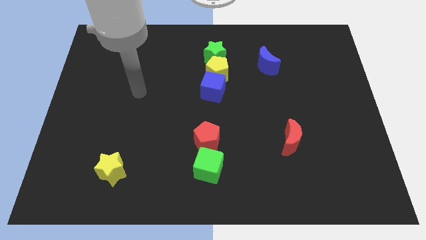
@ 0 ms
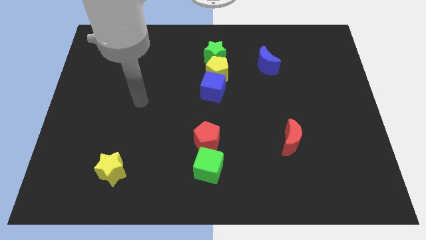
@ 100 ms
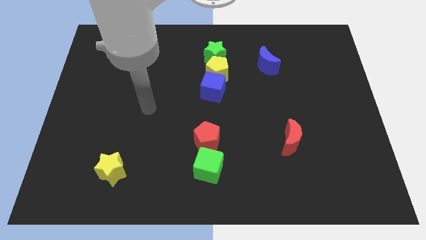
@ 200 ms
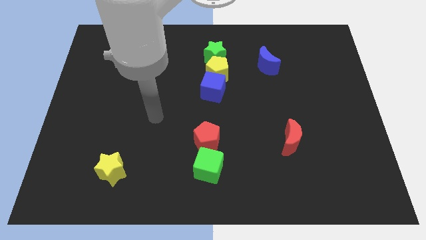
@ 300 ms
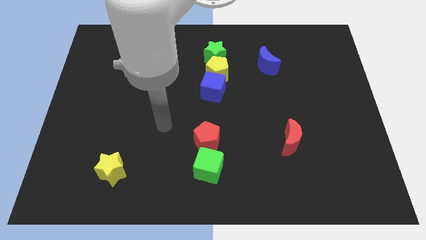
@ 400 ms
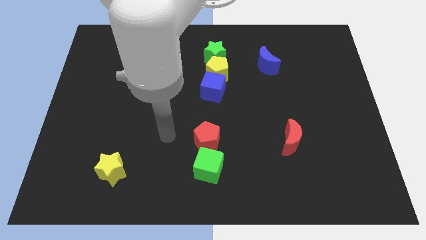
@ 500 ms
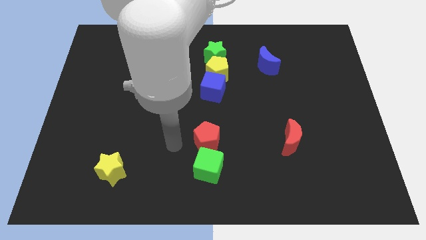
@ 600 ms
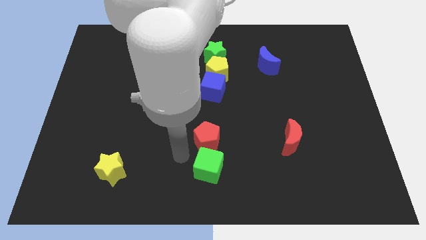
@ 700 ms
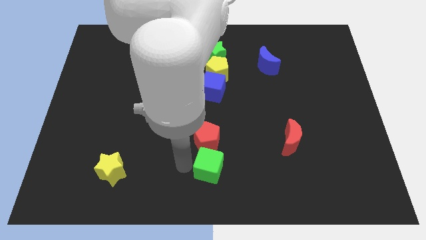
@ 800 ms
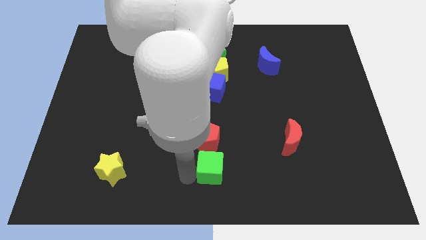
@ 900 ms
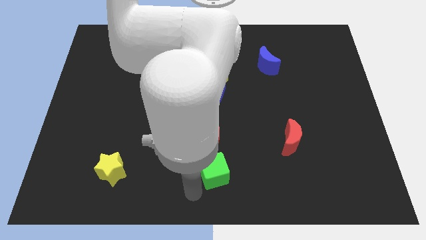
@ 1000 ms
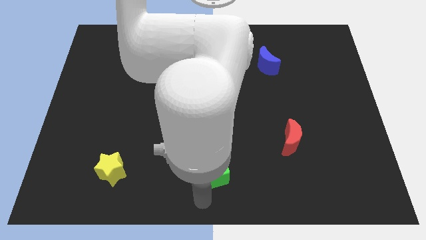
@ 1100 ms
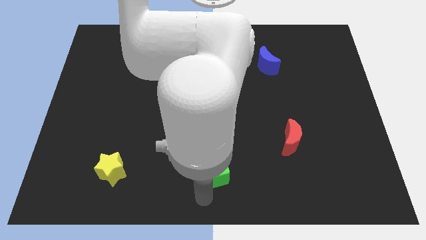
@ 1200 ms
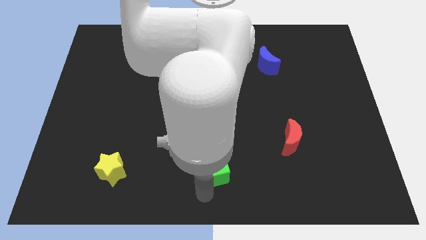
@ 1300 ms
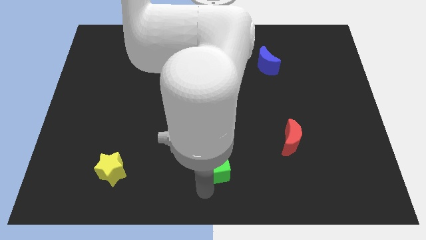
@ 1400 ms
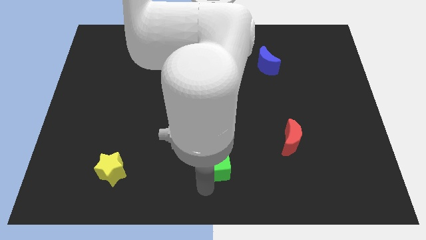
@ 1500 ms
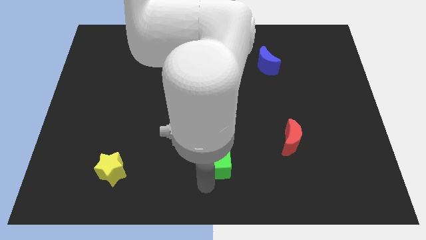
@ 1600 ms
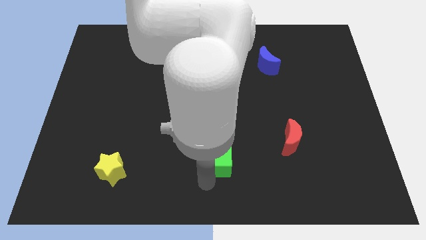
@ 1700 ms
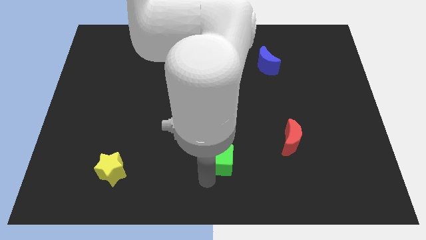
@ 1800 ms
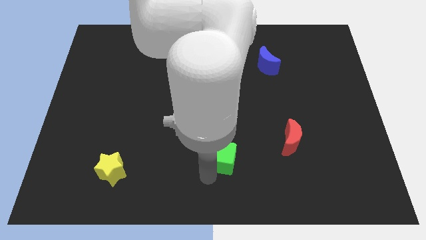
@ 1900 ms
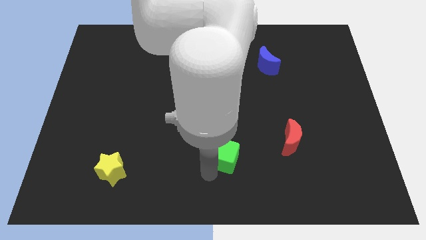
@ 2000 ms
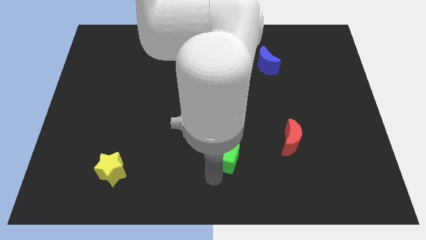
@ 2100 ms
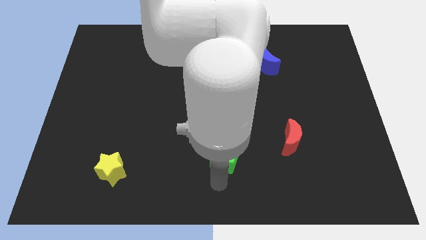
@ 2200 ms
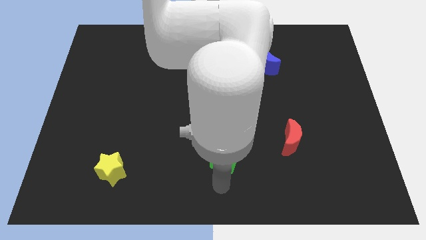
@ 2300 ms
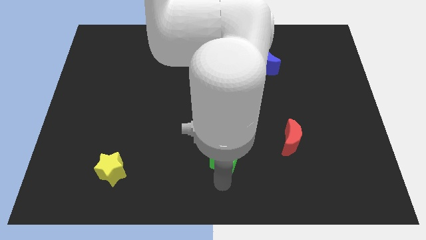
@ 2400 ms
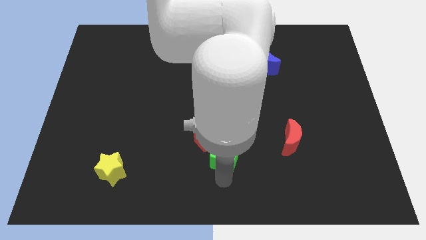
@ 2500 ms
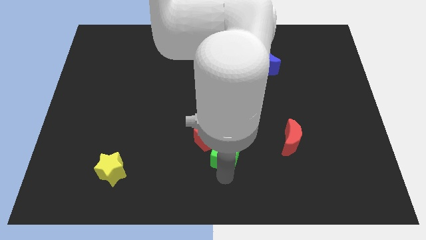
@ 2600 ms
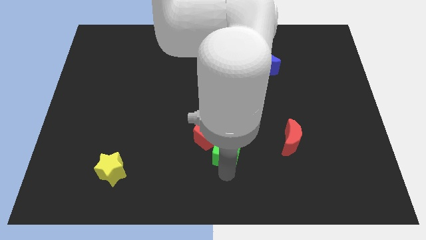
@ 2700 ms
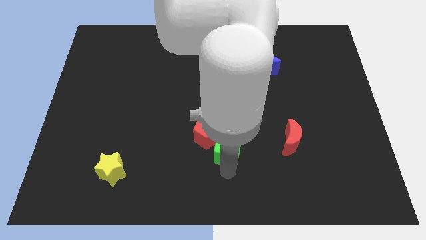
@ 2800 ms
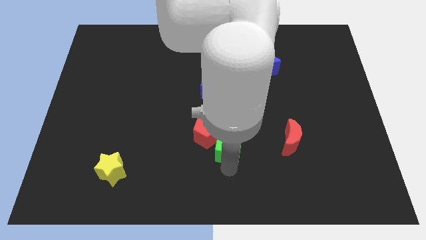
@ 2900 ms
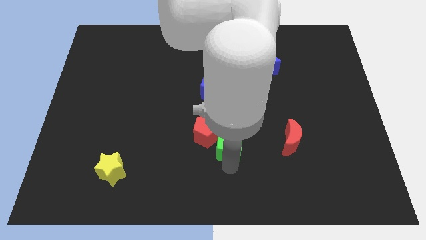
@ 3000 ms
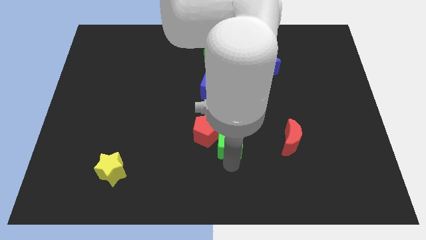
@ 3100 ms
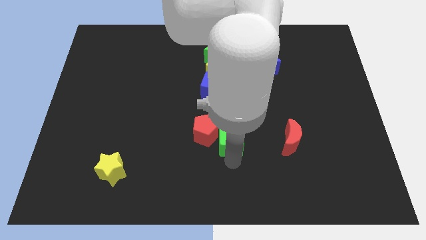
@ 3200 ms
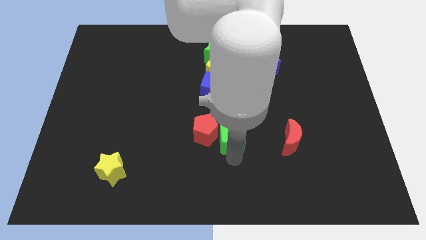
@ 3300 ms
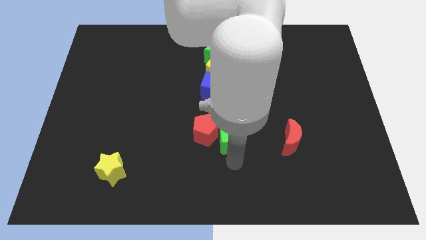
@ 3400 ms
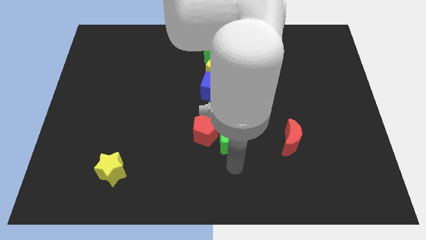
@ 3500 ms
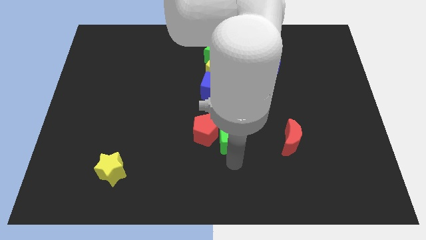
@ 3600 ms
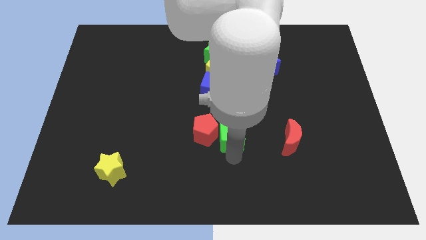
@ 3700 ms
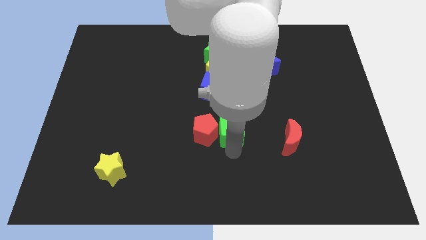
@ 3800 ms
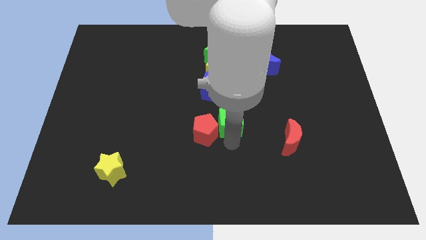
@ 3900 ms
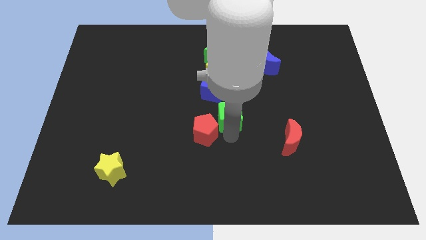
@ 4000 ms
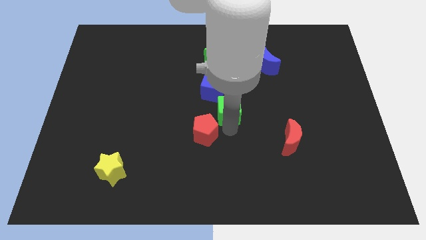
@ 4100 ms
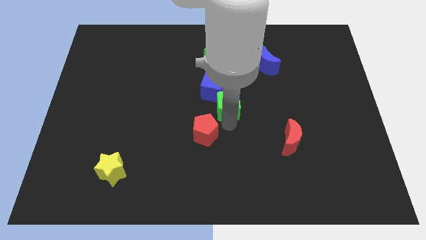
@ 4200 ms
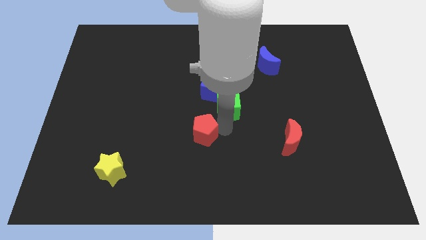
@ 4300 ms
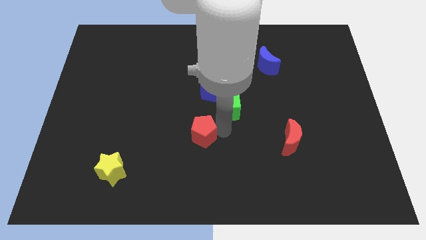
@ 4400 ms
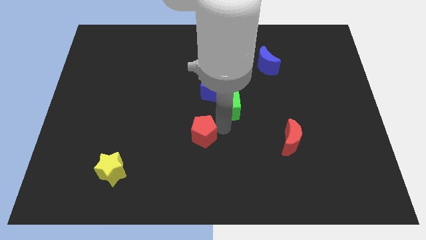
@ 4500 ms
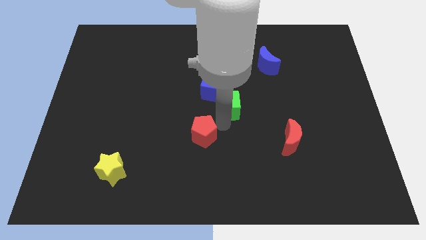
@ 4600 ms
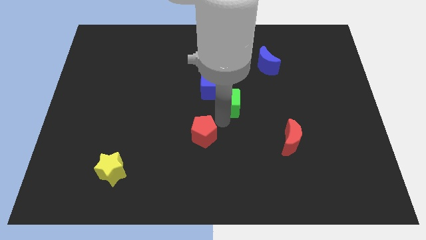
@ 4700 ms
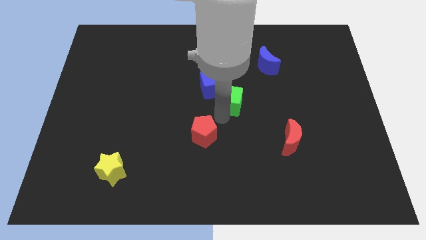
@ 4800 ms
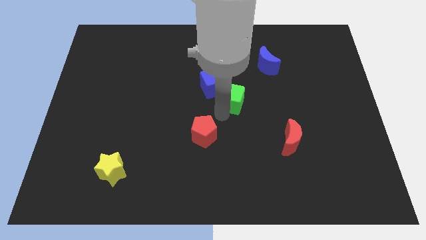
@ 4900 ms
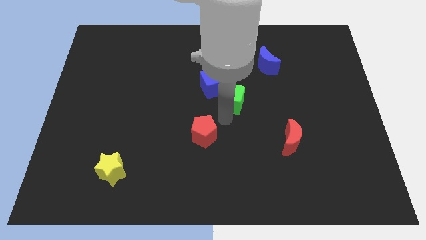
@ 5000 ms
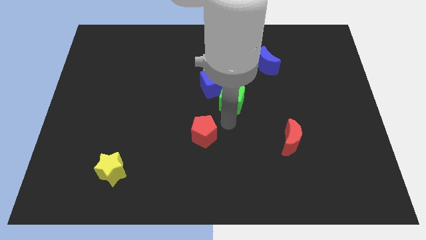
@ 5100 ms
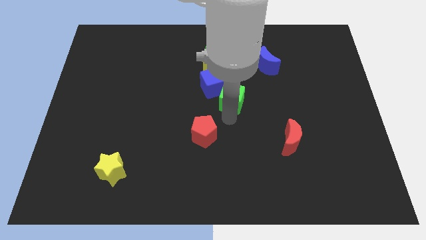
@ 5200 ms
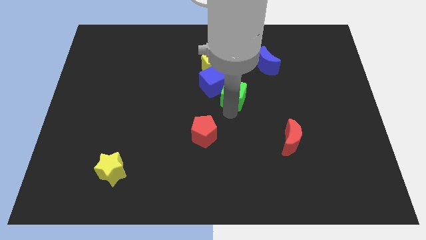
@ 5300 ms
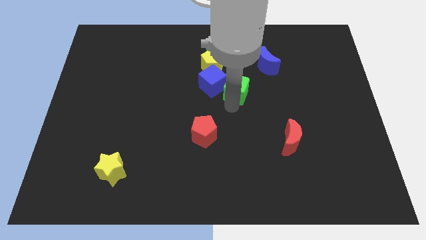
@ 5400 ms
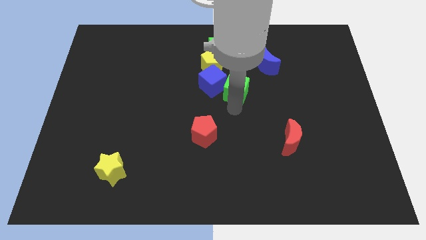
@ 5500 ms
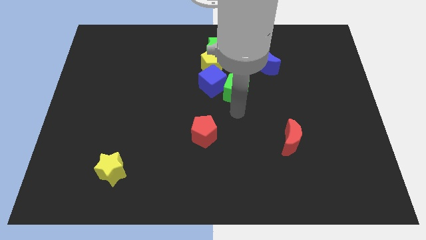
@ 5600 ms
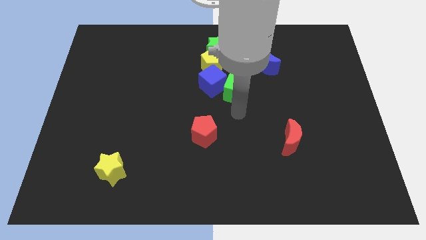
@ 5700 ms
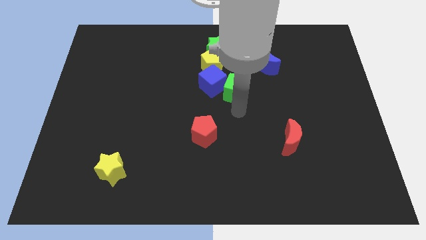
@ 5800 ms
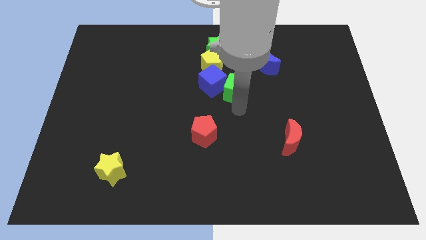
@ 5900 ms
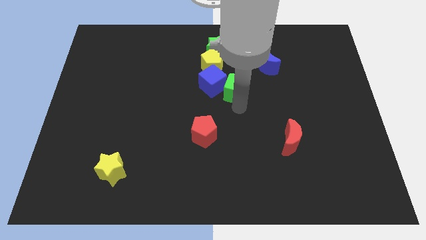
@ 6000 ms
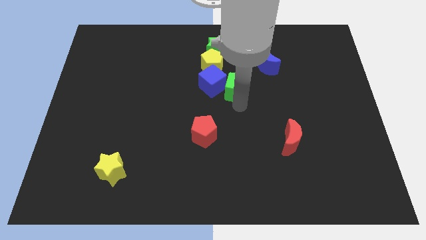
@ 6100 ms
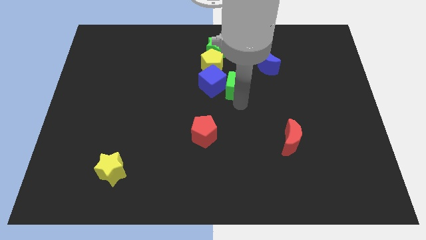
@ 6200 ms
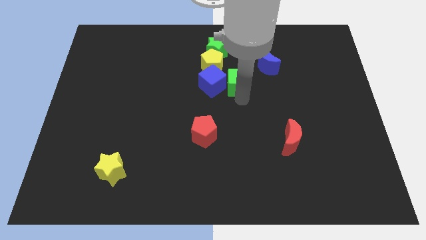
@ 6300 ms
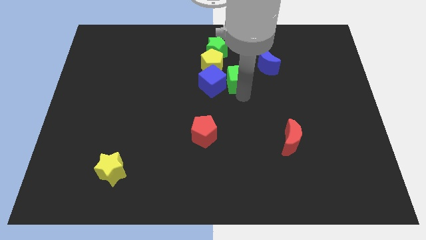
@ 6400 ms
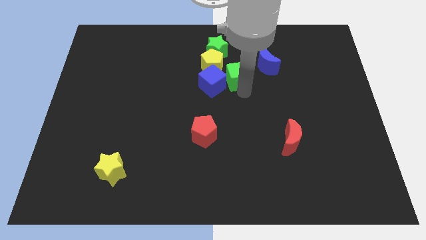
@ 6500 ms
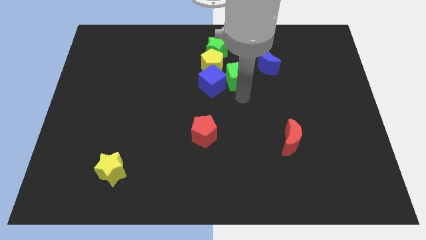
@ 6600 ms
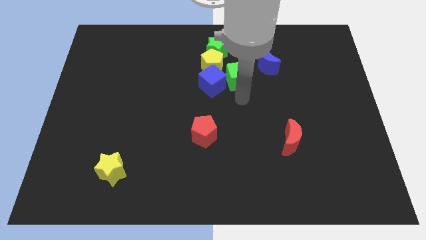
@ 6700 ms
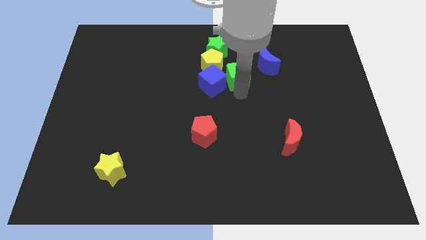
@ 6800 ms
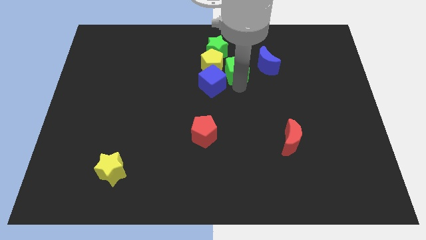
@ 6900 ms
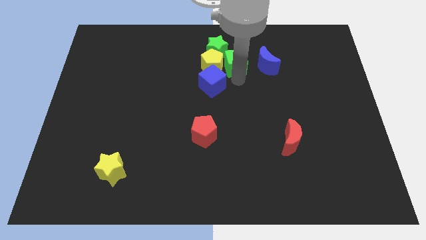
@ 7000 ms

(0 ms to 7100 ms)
slide the green cube diagonally up and to the right of the yellow pentagon
